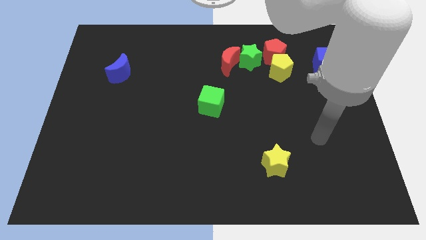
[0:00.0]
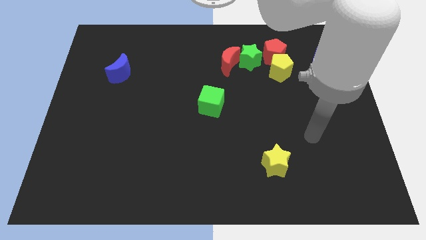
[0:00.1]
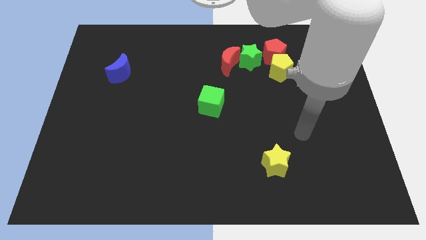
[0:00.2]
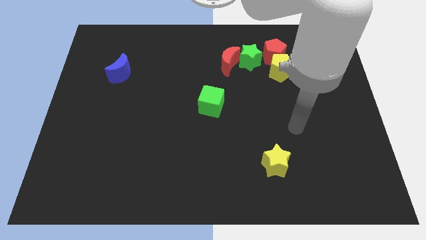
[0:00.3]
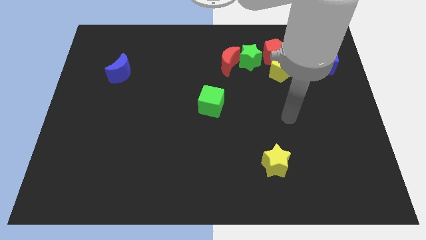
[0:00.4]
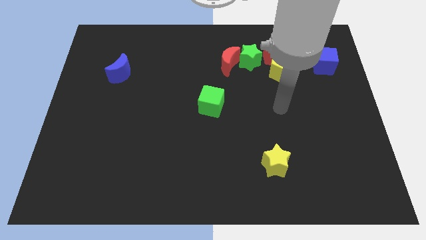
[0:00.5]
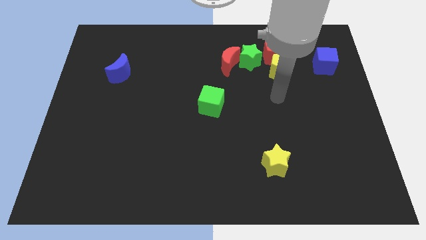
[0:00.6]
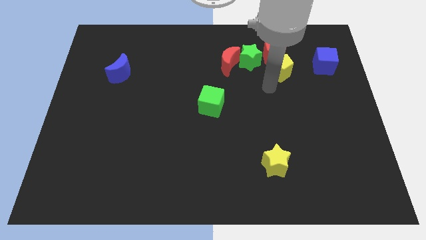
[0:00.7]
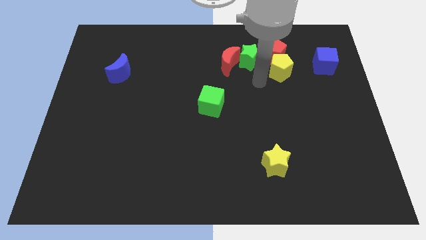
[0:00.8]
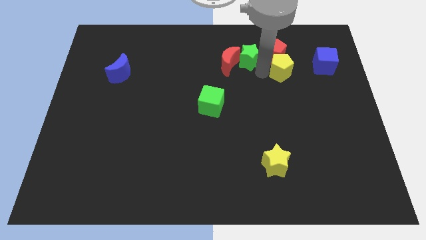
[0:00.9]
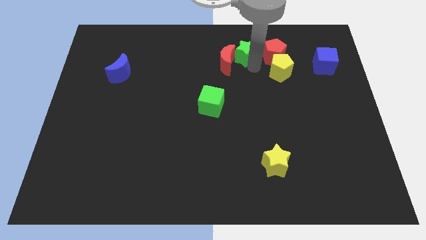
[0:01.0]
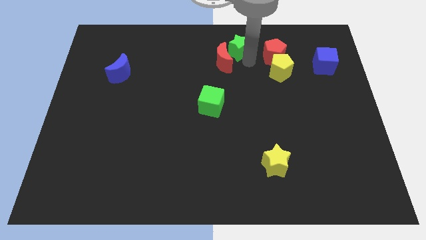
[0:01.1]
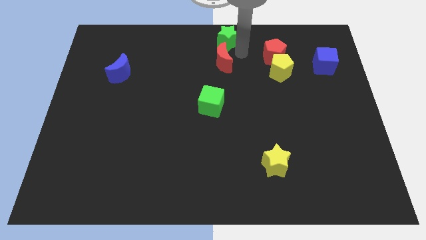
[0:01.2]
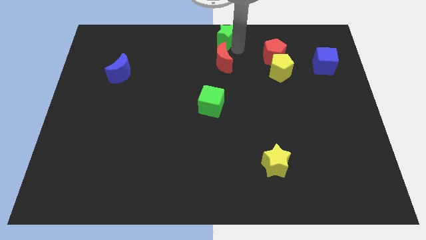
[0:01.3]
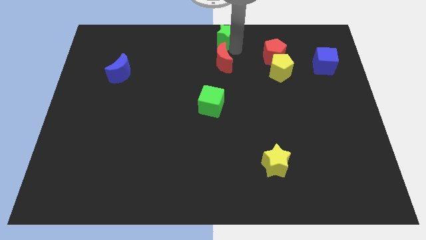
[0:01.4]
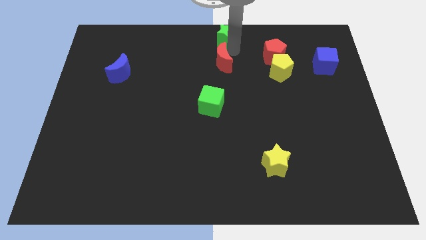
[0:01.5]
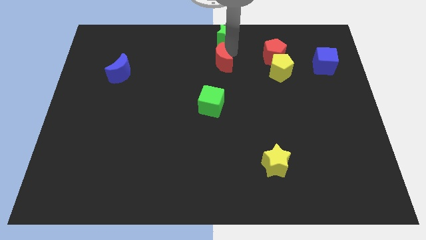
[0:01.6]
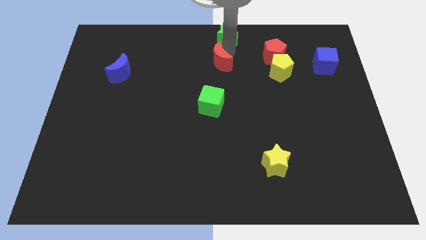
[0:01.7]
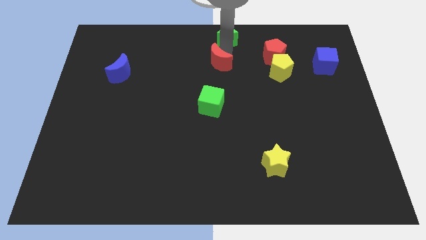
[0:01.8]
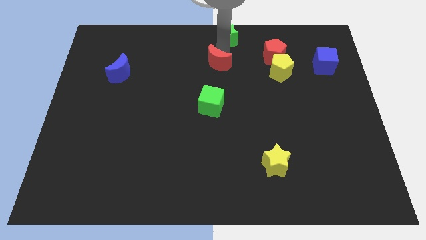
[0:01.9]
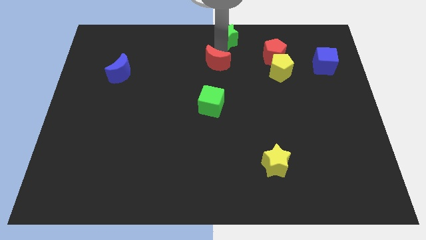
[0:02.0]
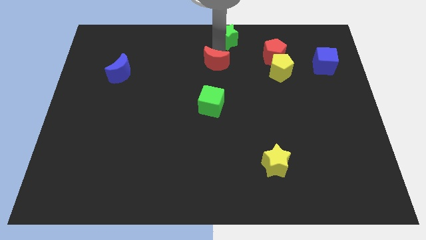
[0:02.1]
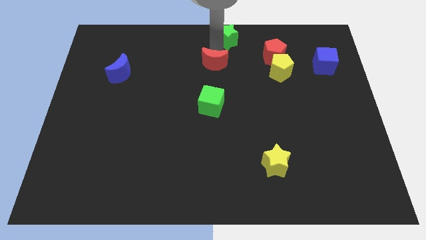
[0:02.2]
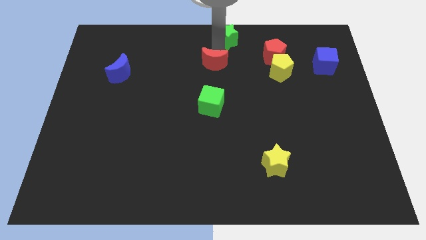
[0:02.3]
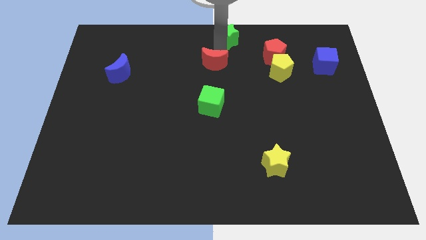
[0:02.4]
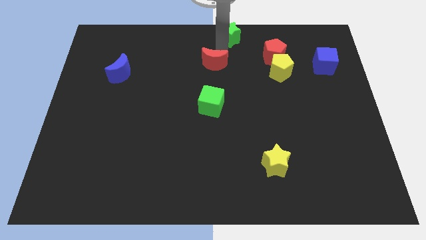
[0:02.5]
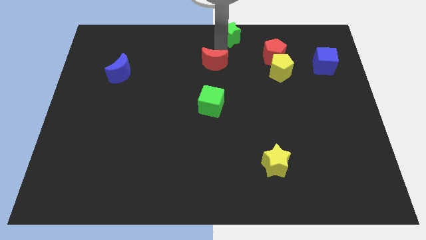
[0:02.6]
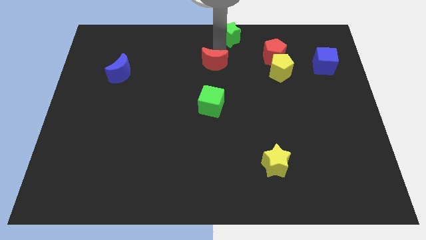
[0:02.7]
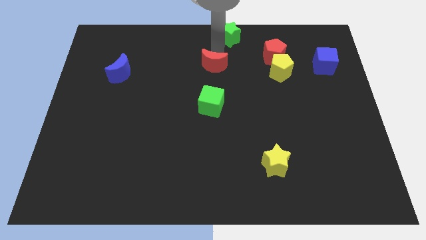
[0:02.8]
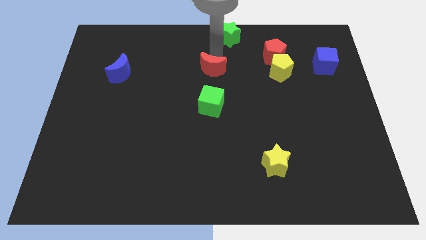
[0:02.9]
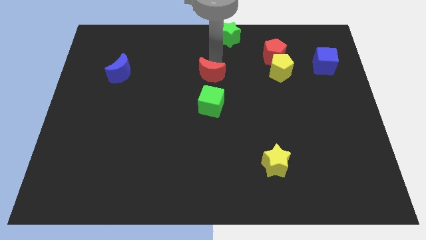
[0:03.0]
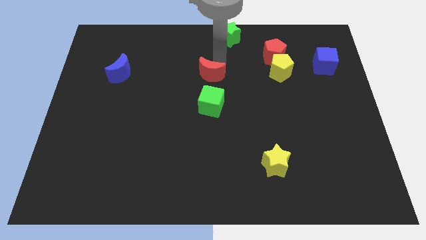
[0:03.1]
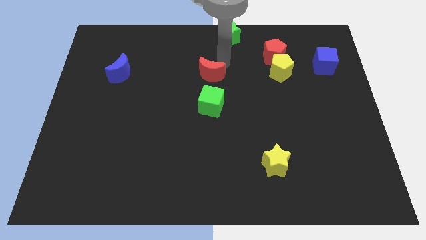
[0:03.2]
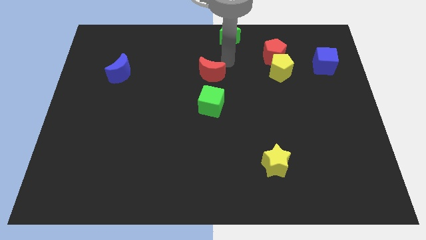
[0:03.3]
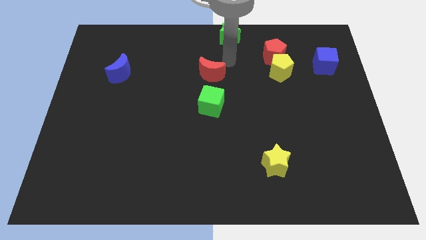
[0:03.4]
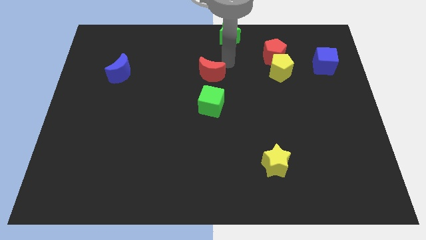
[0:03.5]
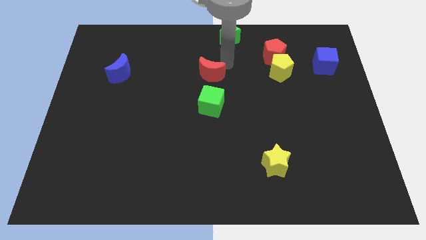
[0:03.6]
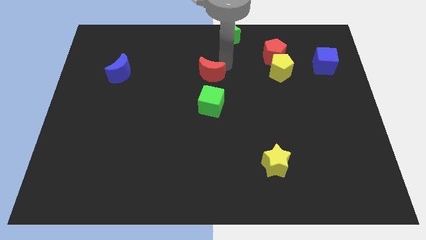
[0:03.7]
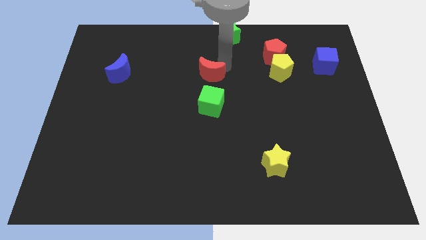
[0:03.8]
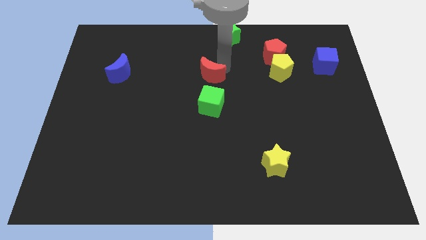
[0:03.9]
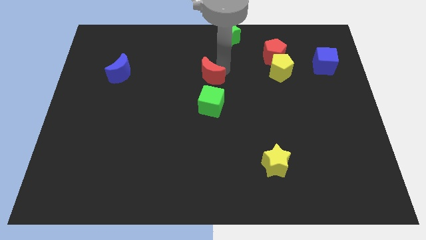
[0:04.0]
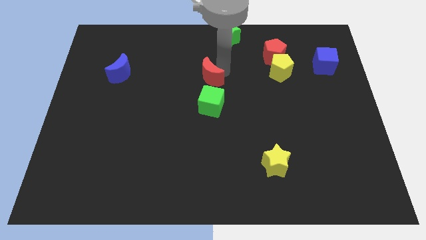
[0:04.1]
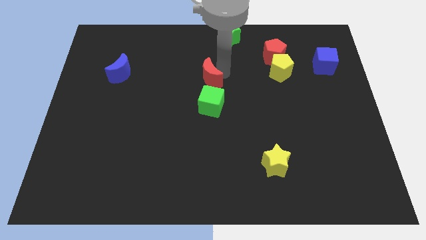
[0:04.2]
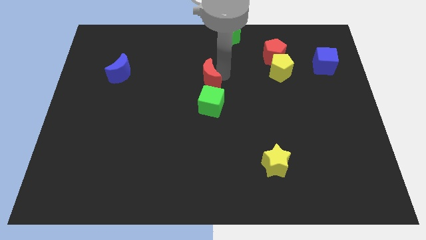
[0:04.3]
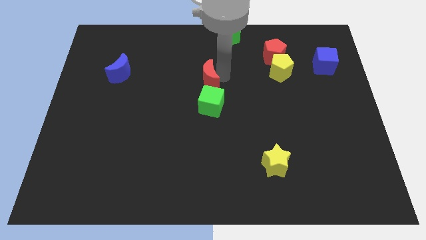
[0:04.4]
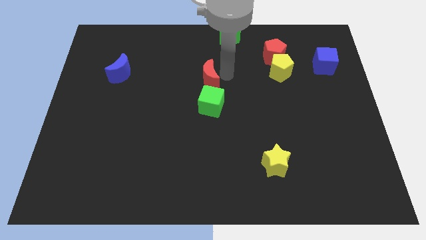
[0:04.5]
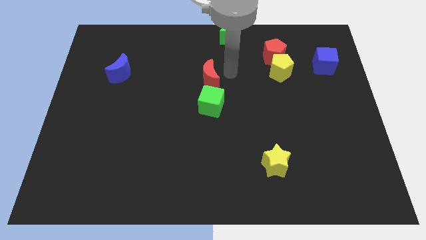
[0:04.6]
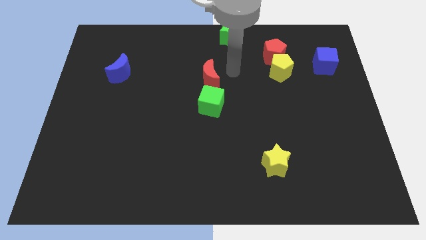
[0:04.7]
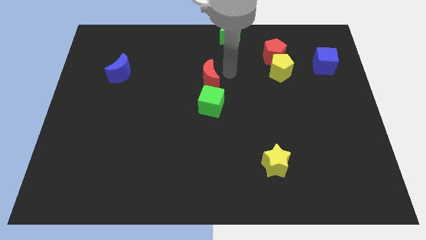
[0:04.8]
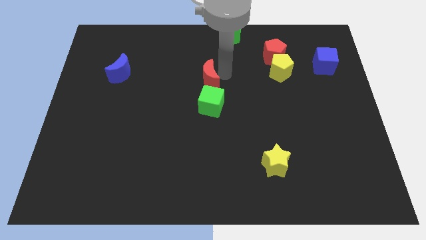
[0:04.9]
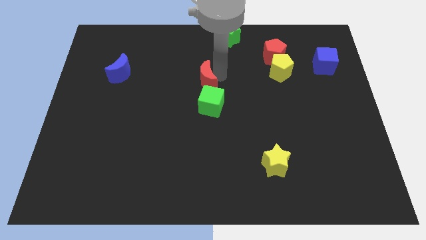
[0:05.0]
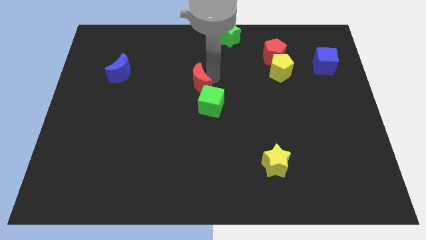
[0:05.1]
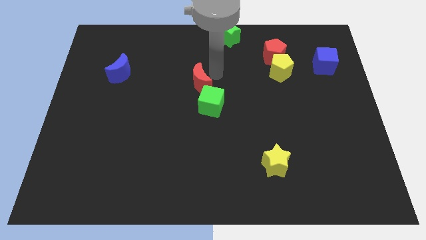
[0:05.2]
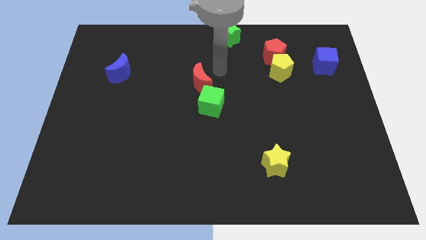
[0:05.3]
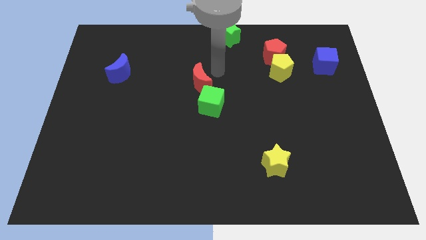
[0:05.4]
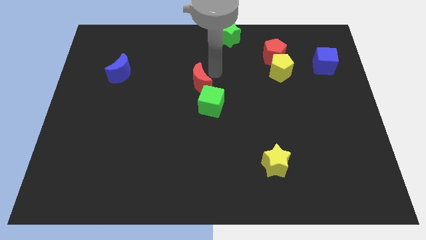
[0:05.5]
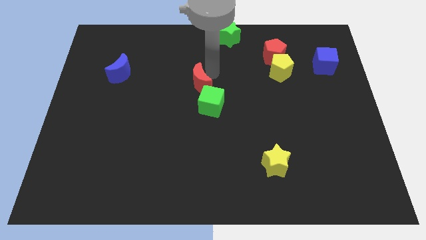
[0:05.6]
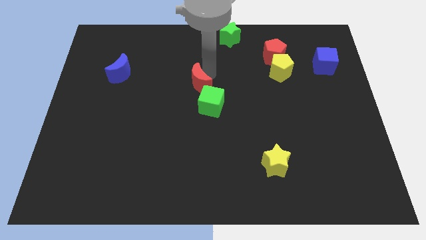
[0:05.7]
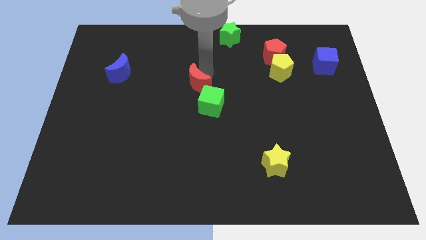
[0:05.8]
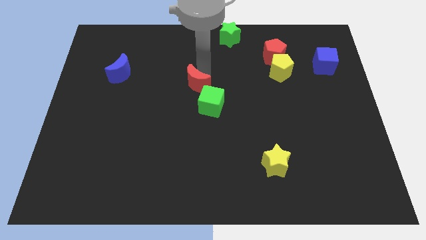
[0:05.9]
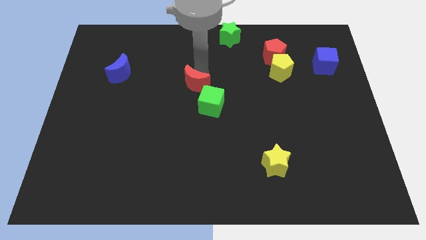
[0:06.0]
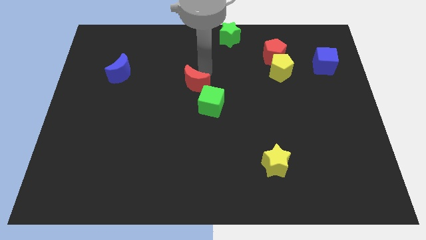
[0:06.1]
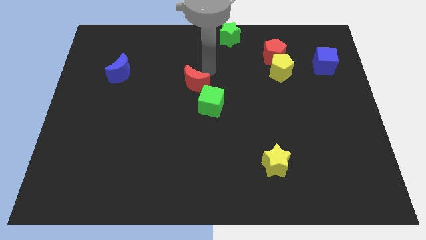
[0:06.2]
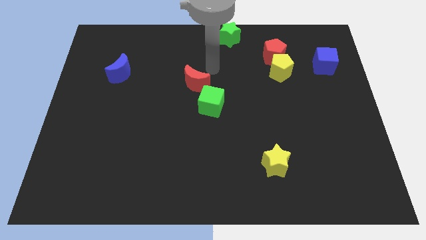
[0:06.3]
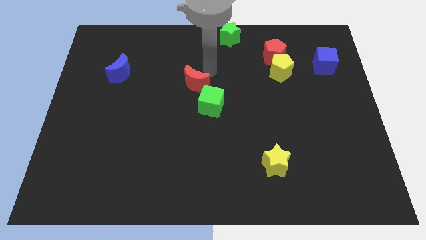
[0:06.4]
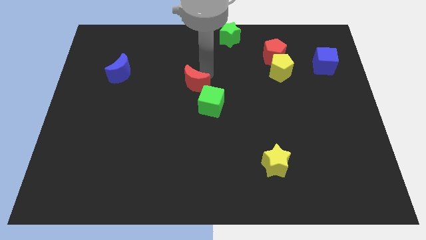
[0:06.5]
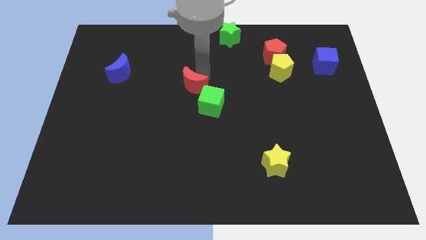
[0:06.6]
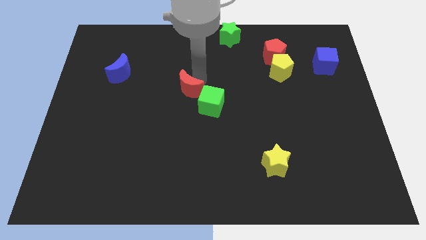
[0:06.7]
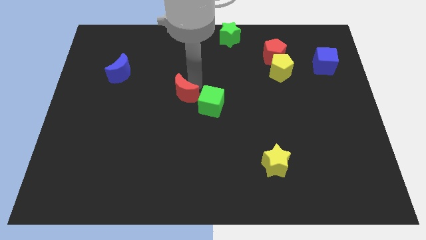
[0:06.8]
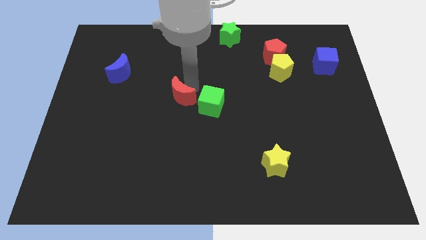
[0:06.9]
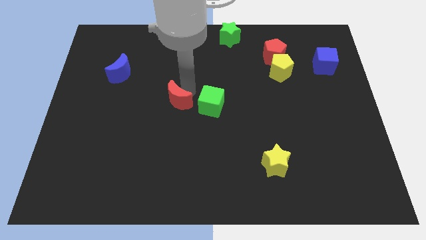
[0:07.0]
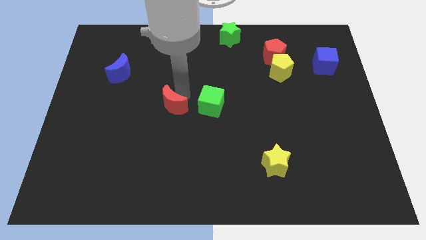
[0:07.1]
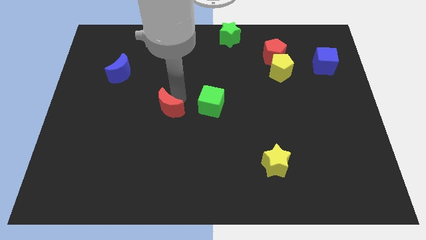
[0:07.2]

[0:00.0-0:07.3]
move the red moon downwards and to the left

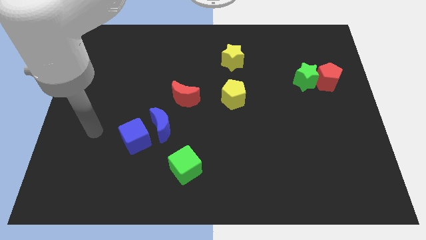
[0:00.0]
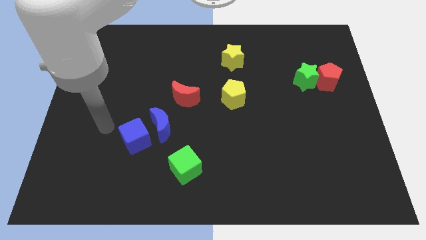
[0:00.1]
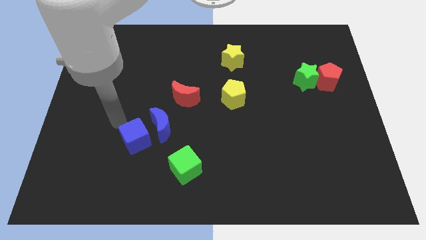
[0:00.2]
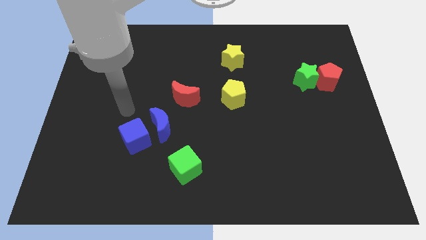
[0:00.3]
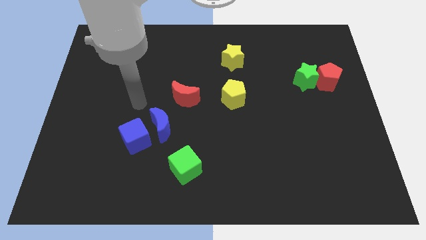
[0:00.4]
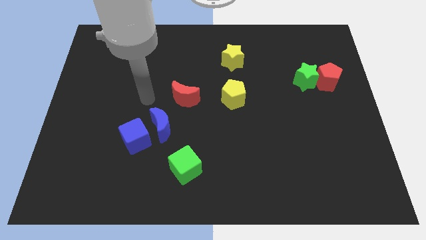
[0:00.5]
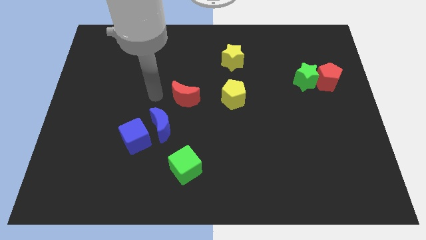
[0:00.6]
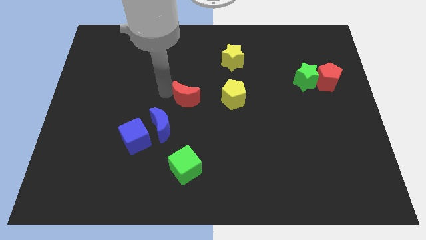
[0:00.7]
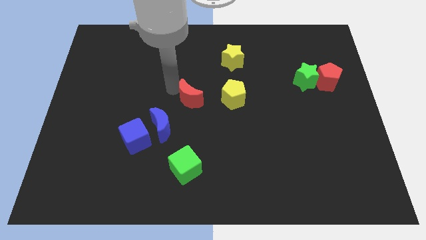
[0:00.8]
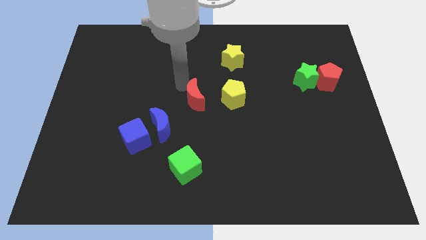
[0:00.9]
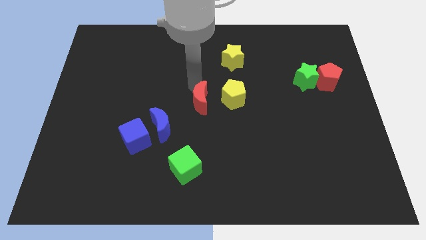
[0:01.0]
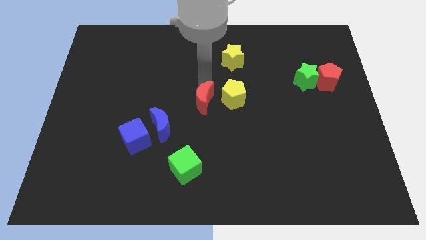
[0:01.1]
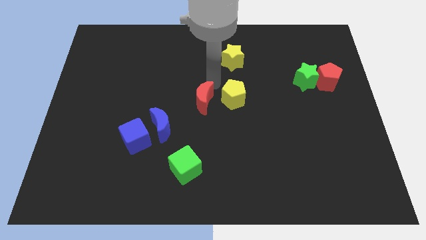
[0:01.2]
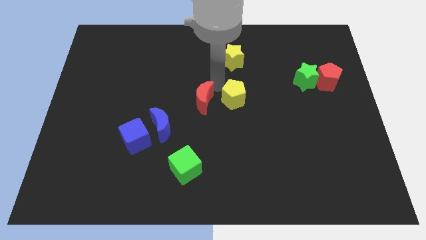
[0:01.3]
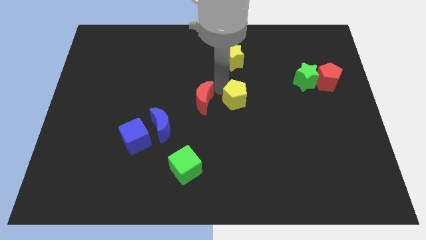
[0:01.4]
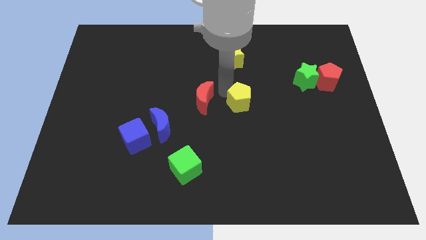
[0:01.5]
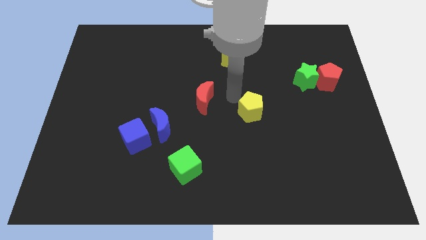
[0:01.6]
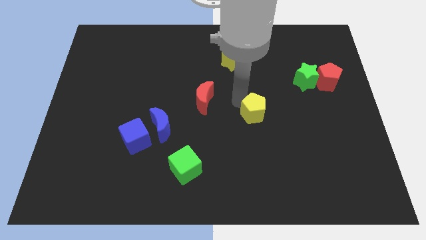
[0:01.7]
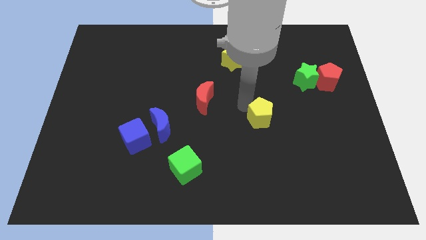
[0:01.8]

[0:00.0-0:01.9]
slightly move the yellow pentagon down and to the right diagonally
